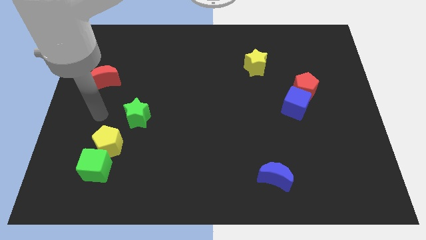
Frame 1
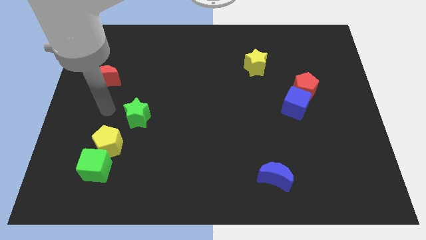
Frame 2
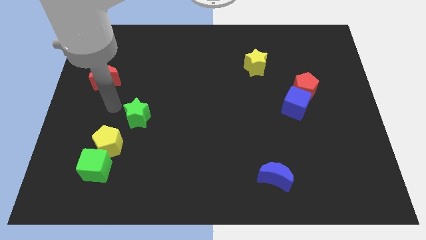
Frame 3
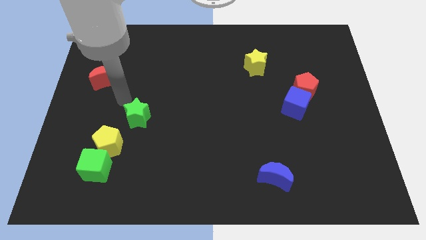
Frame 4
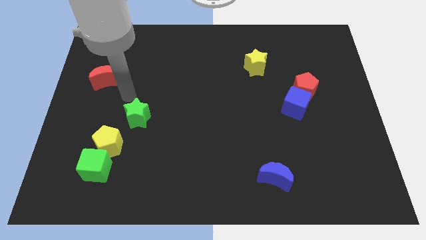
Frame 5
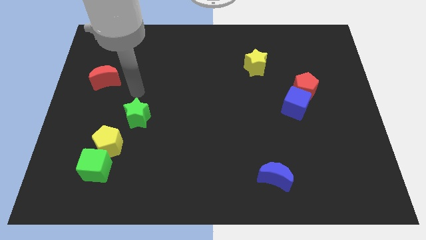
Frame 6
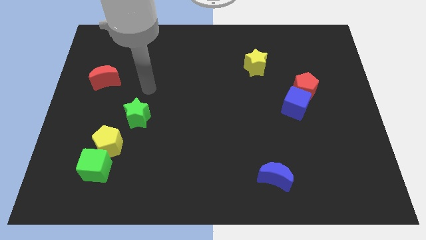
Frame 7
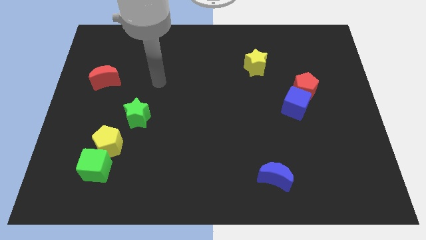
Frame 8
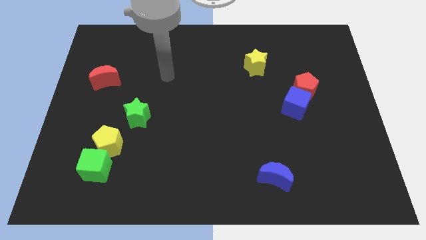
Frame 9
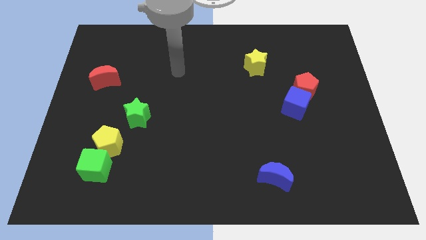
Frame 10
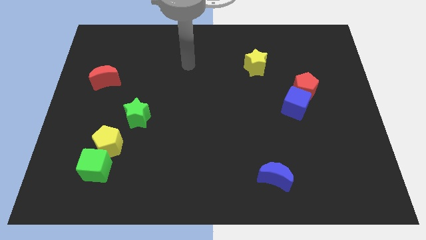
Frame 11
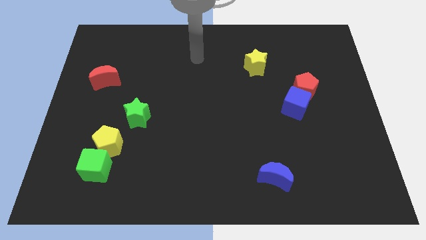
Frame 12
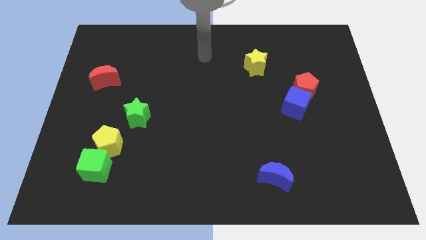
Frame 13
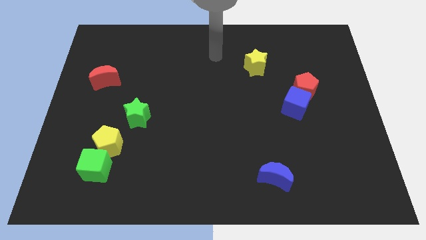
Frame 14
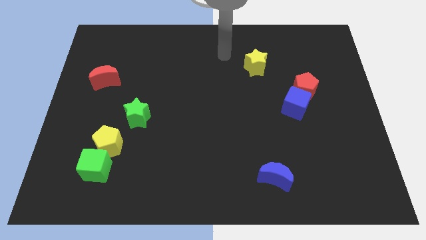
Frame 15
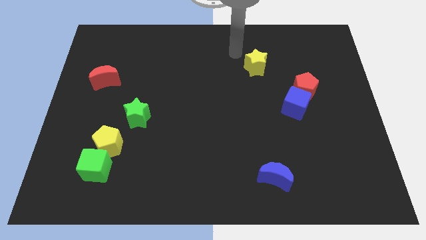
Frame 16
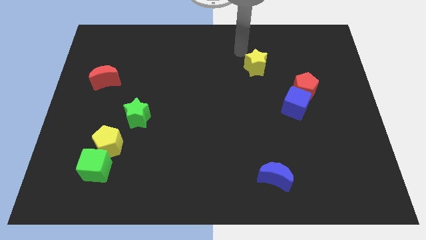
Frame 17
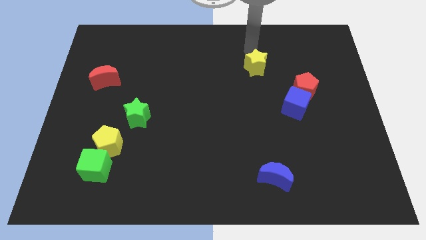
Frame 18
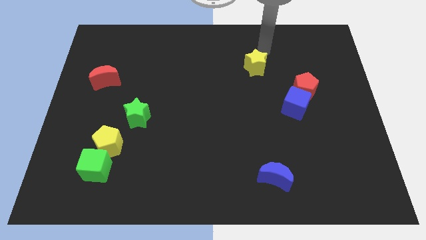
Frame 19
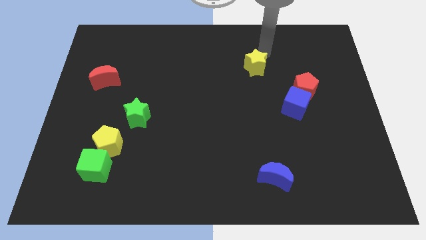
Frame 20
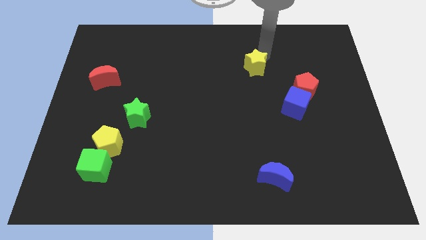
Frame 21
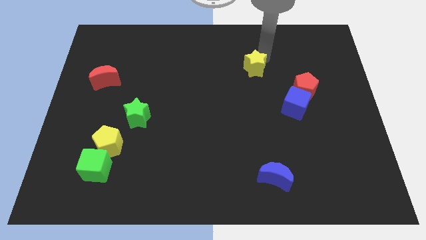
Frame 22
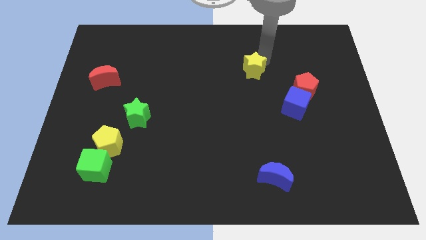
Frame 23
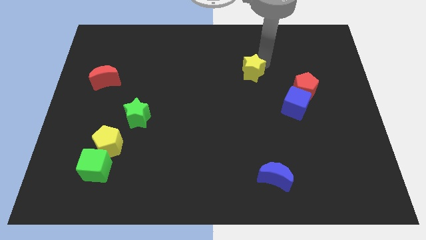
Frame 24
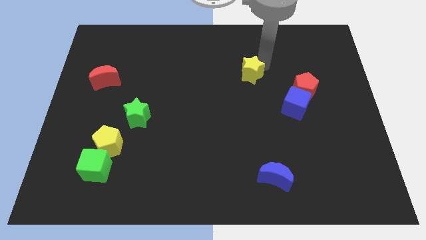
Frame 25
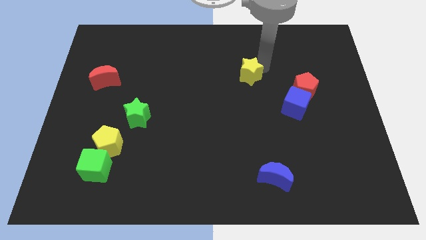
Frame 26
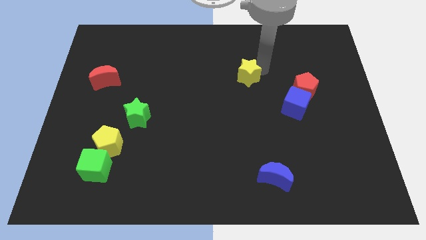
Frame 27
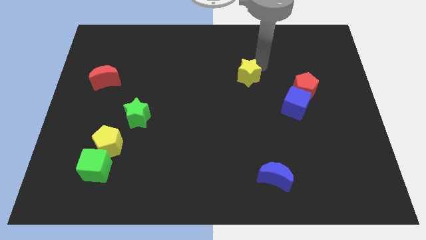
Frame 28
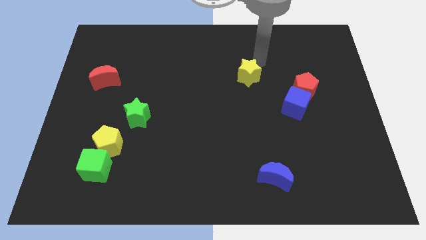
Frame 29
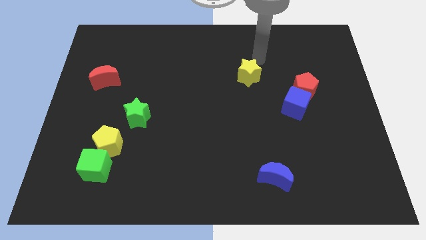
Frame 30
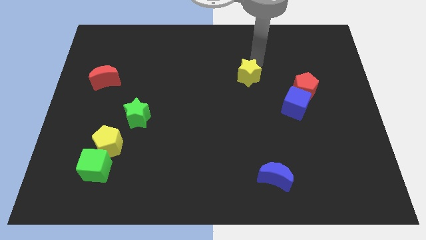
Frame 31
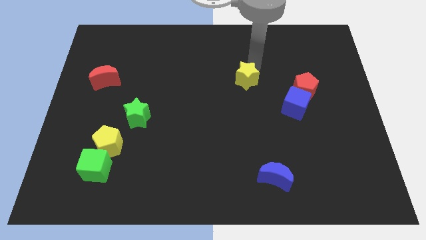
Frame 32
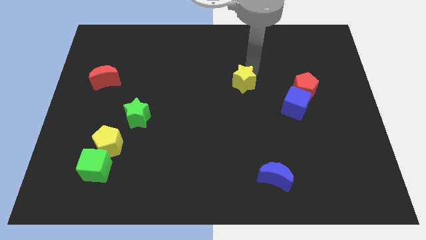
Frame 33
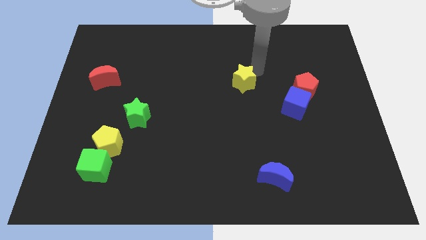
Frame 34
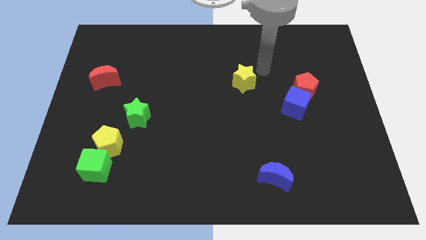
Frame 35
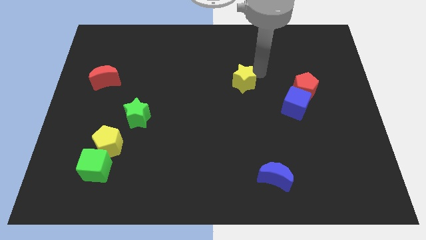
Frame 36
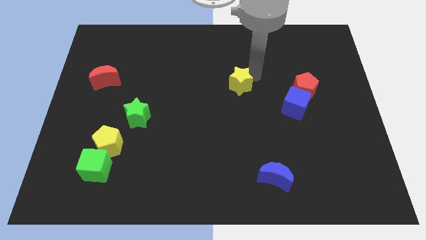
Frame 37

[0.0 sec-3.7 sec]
move the yellow star slightly downwards and then to the left

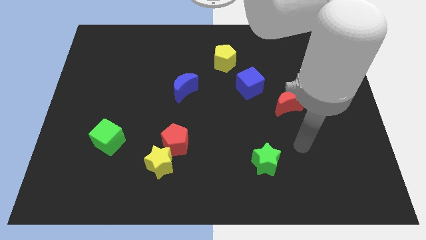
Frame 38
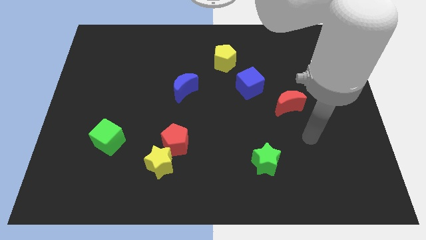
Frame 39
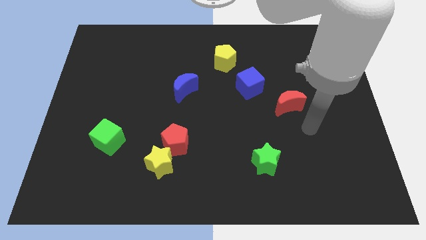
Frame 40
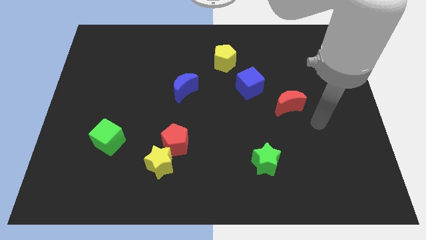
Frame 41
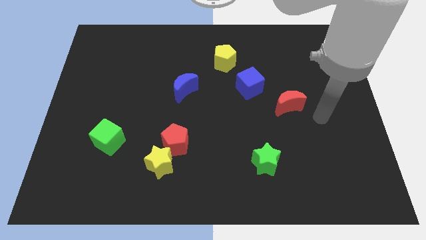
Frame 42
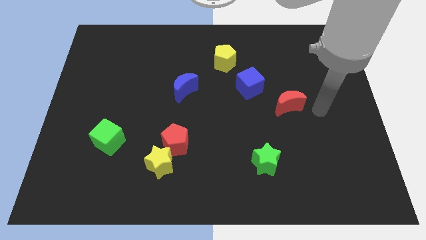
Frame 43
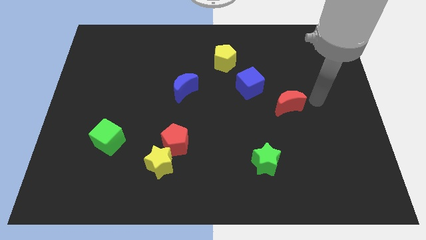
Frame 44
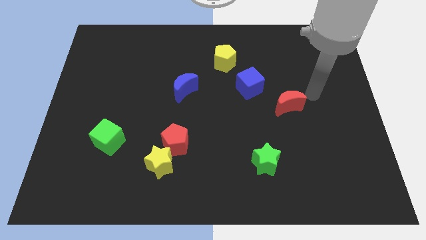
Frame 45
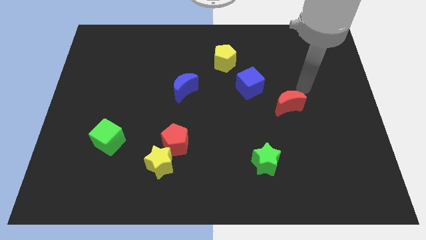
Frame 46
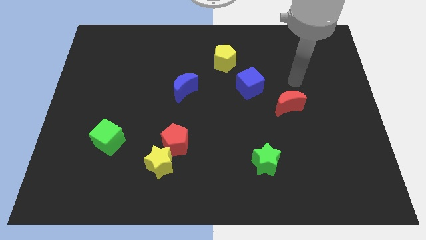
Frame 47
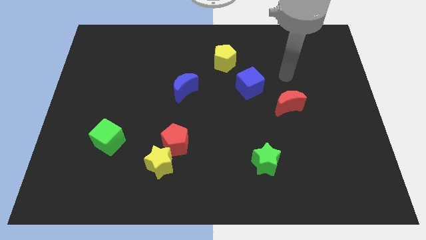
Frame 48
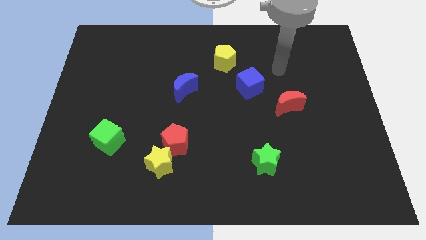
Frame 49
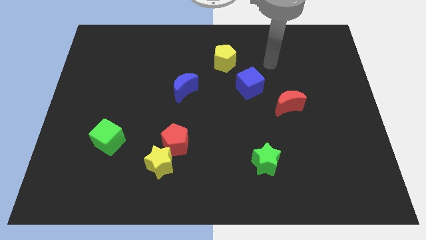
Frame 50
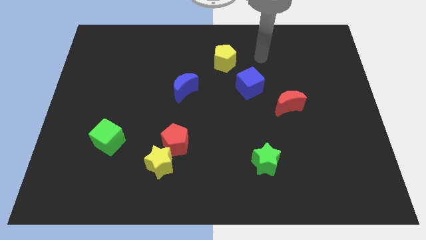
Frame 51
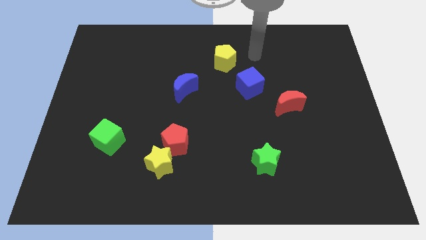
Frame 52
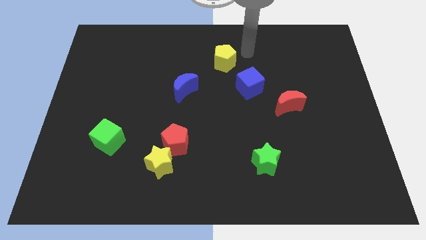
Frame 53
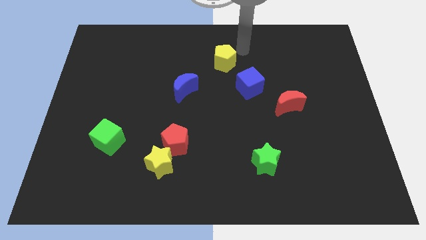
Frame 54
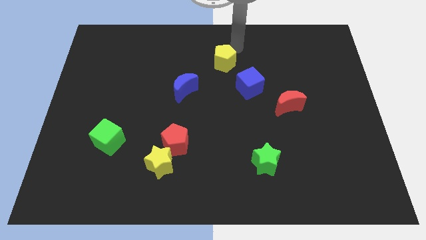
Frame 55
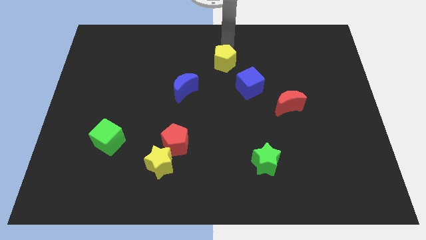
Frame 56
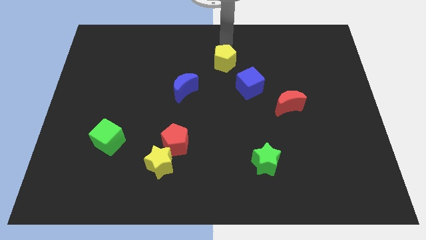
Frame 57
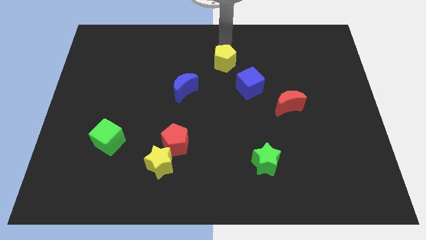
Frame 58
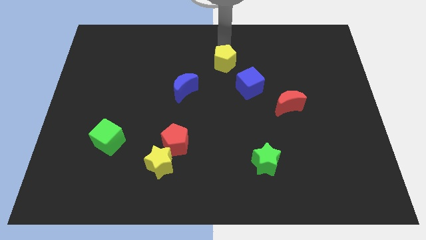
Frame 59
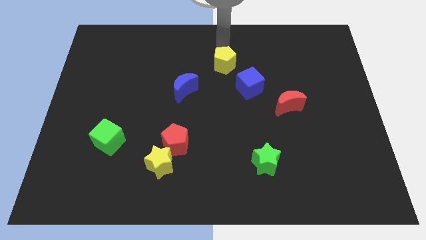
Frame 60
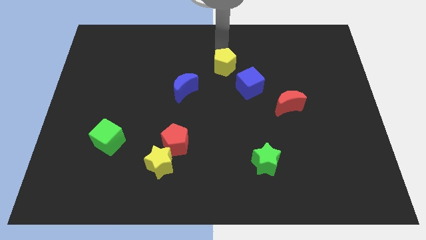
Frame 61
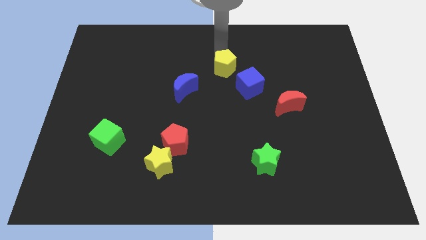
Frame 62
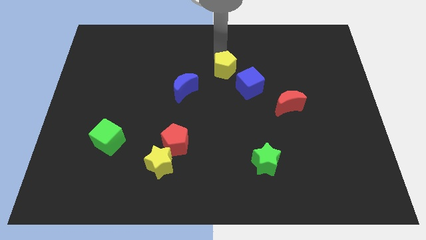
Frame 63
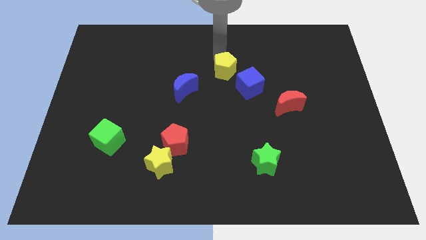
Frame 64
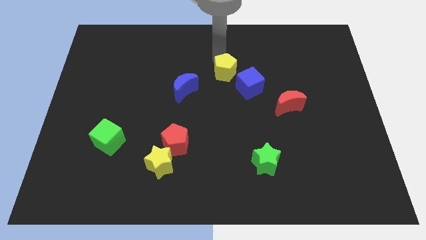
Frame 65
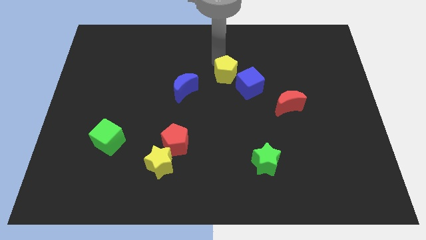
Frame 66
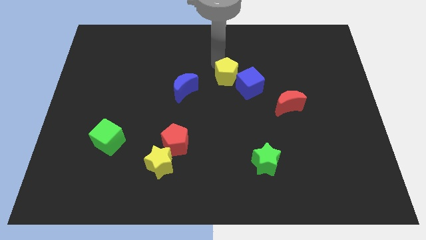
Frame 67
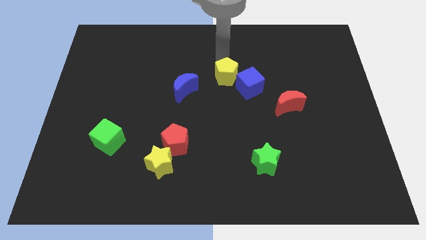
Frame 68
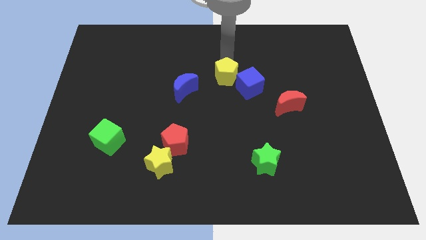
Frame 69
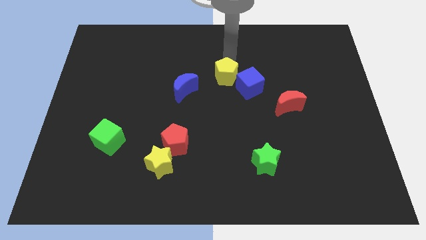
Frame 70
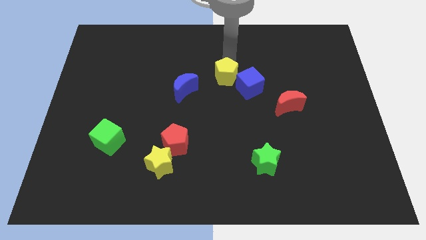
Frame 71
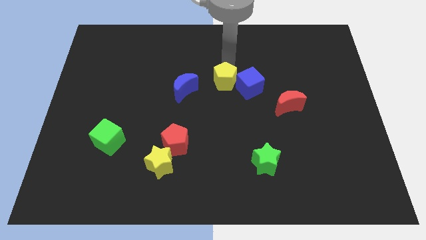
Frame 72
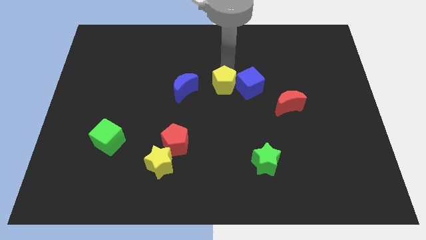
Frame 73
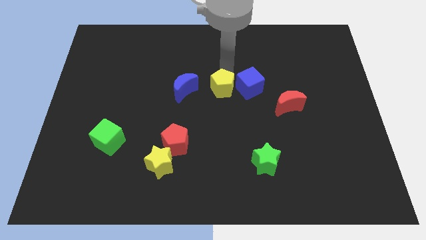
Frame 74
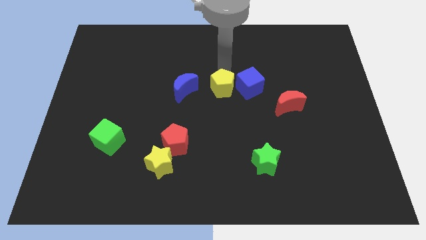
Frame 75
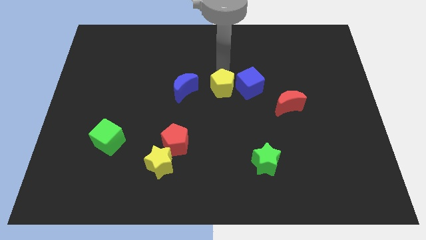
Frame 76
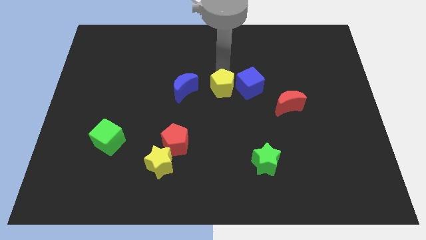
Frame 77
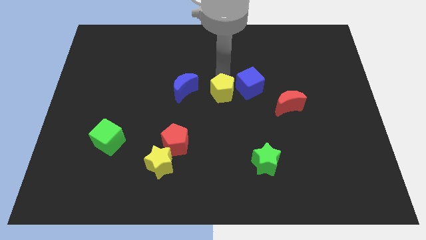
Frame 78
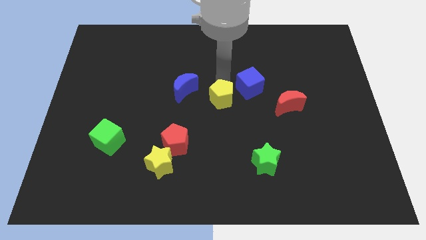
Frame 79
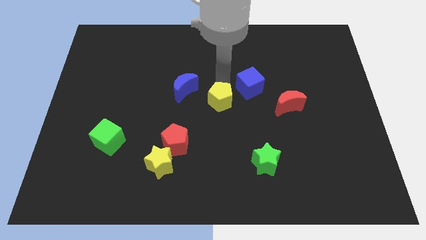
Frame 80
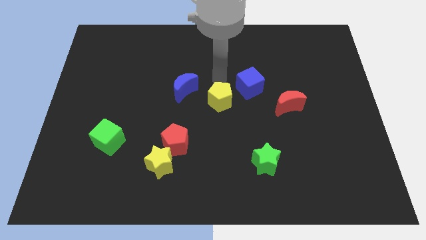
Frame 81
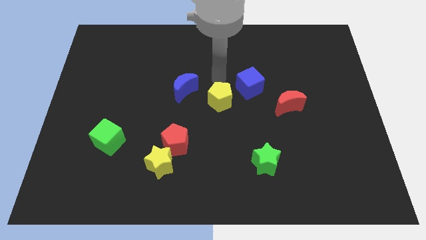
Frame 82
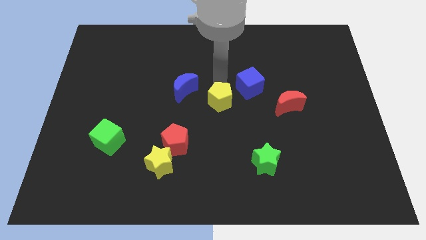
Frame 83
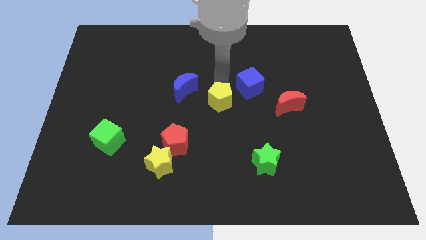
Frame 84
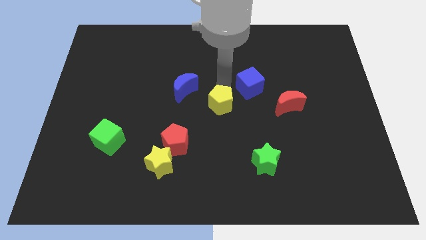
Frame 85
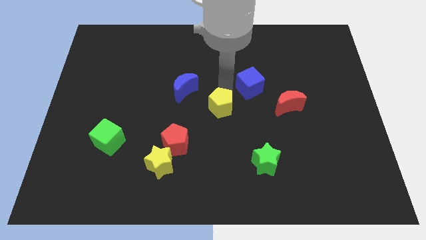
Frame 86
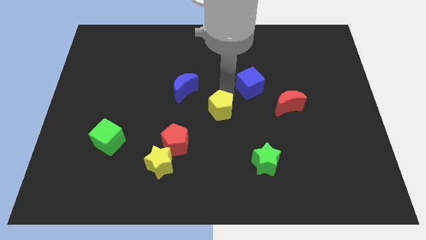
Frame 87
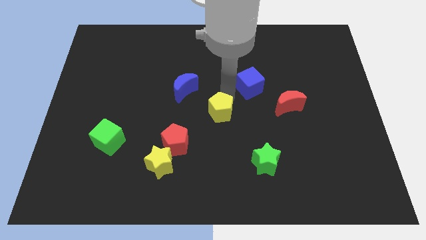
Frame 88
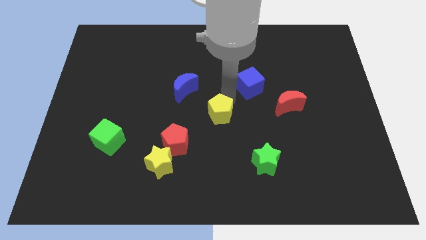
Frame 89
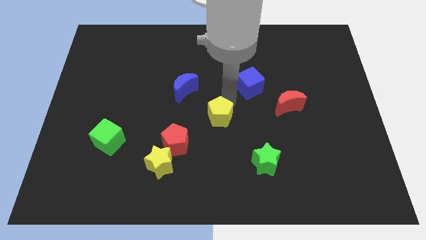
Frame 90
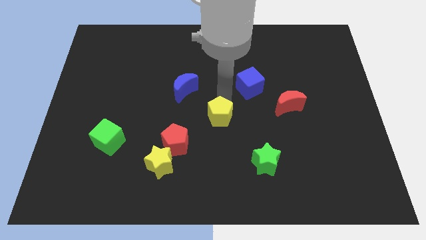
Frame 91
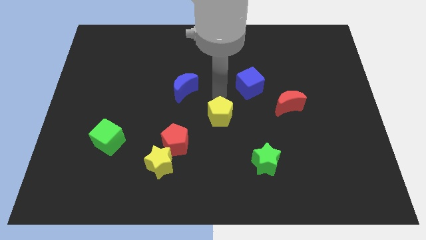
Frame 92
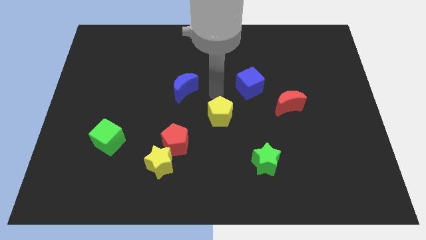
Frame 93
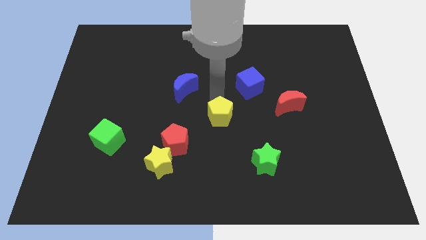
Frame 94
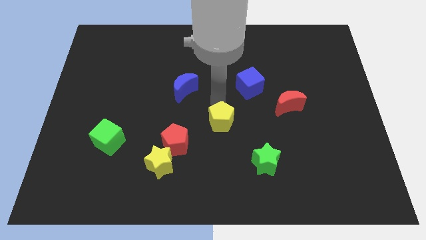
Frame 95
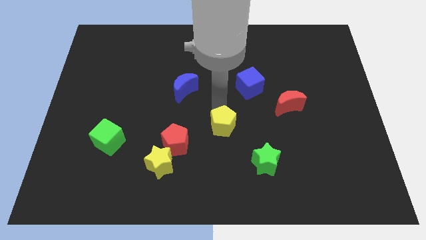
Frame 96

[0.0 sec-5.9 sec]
move the yellow pentagon downwards
